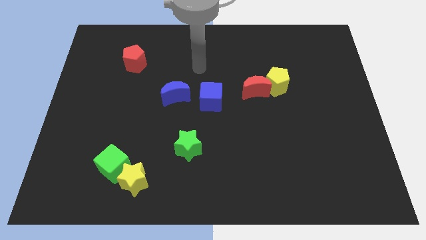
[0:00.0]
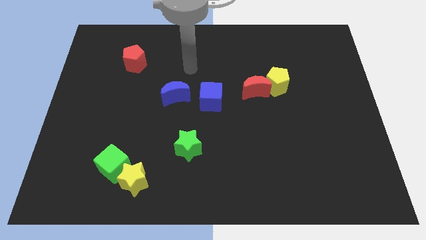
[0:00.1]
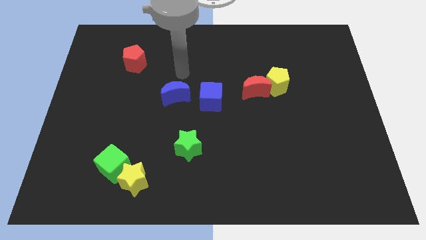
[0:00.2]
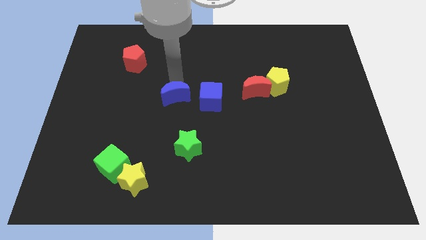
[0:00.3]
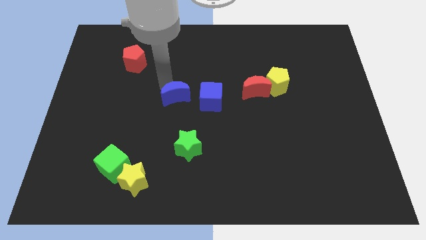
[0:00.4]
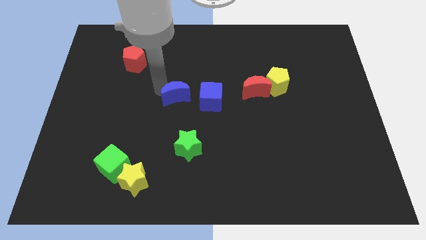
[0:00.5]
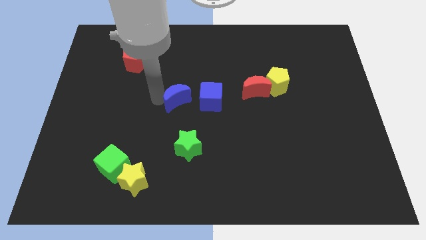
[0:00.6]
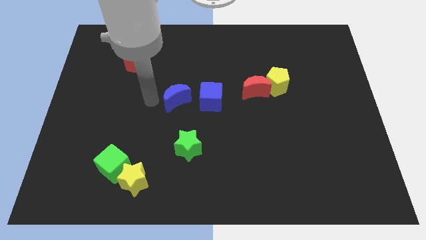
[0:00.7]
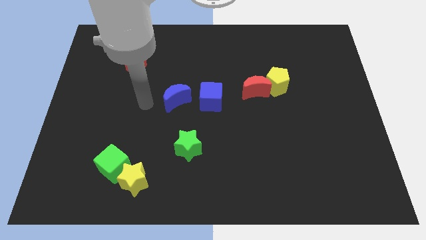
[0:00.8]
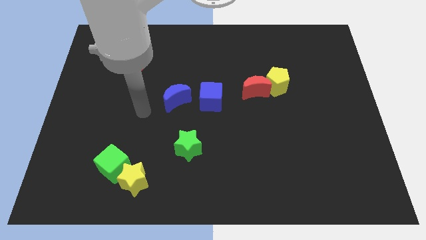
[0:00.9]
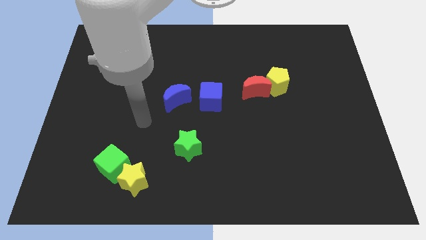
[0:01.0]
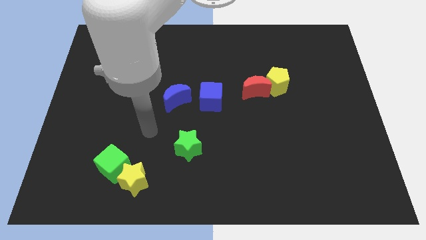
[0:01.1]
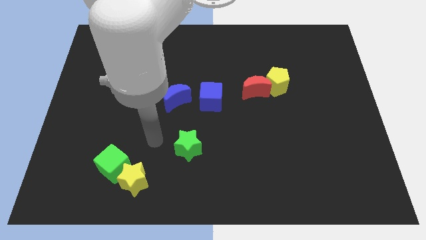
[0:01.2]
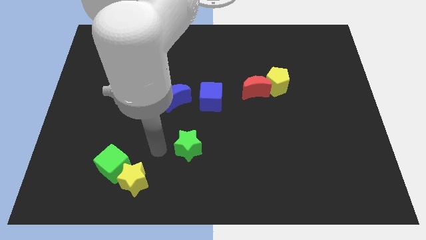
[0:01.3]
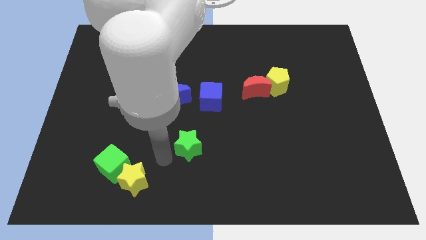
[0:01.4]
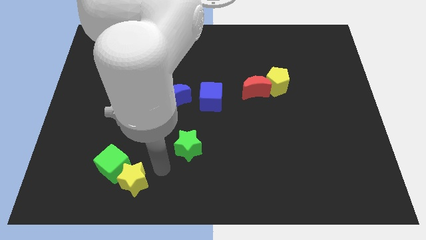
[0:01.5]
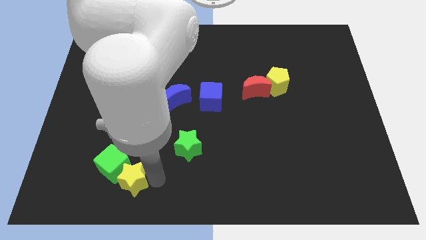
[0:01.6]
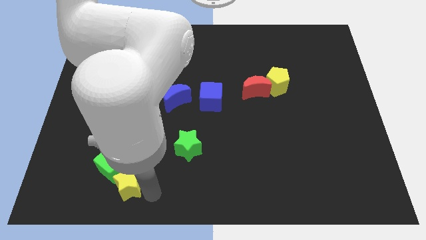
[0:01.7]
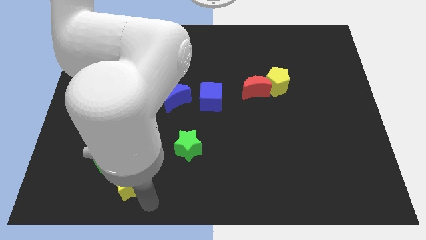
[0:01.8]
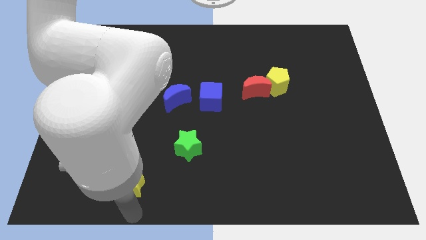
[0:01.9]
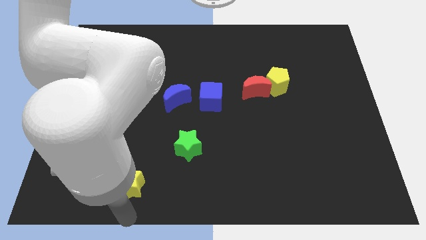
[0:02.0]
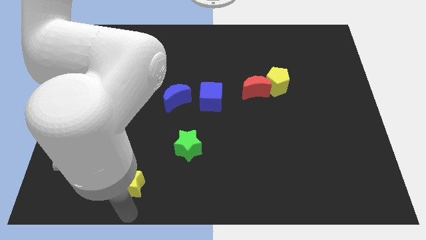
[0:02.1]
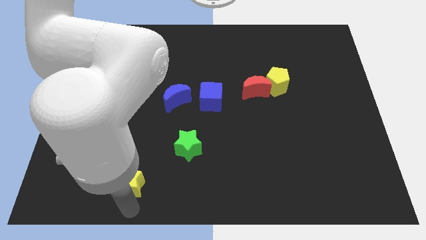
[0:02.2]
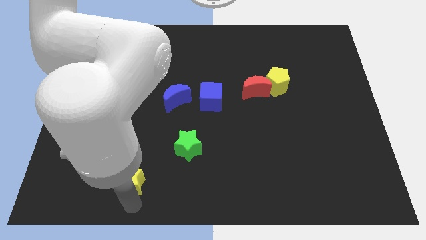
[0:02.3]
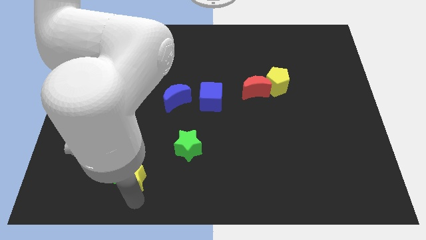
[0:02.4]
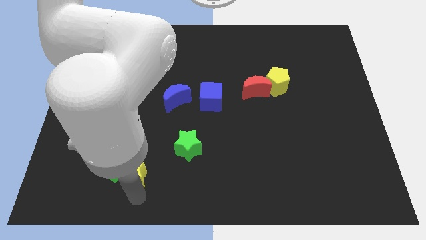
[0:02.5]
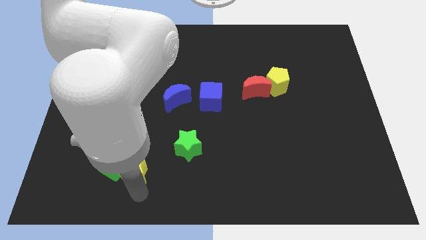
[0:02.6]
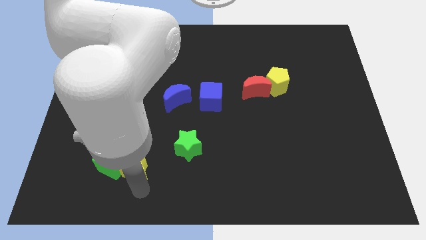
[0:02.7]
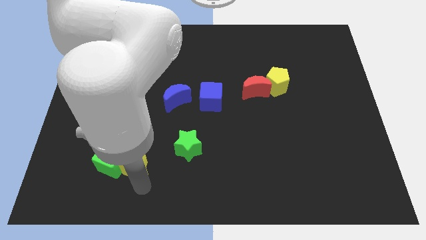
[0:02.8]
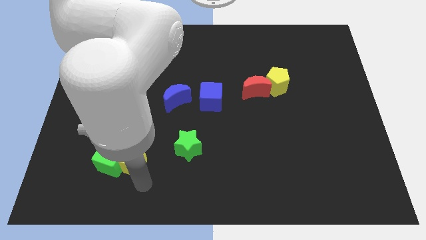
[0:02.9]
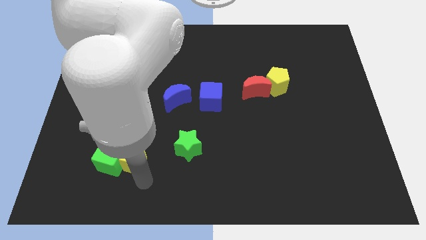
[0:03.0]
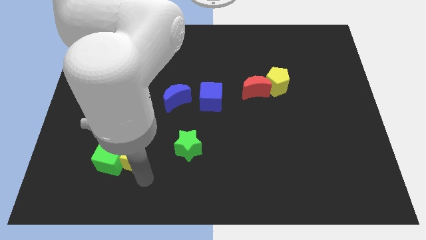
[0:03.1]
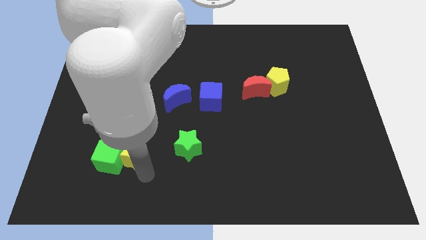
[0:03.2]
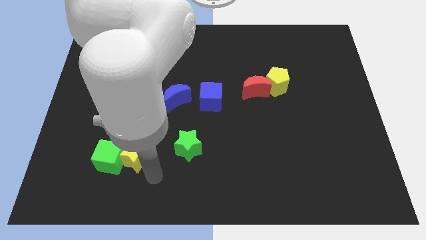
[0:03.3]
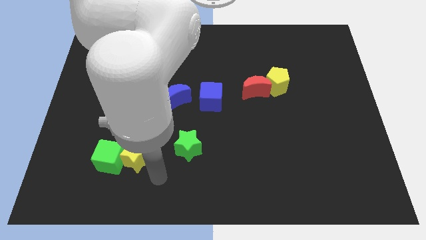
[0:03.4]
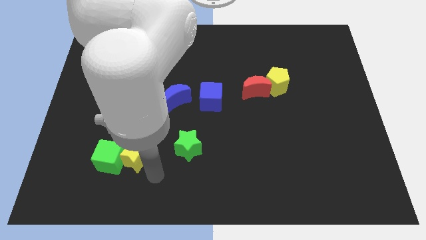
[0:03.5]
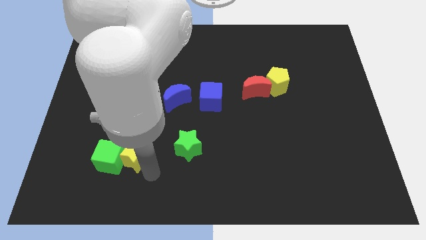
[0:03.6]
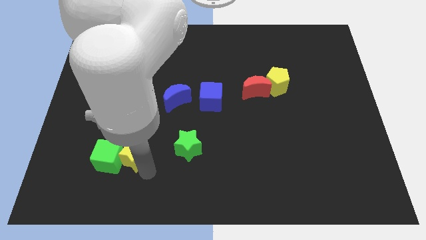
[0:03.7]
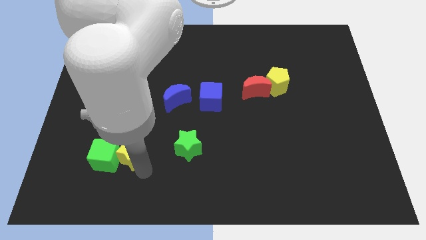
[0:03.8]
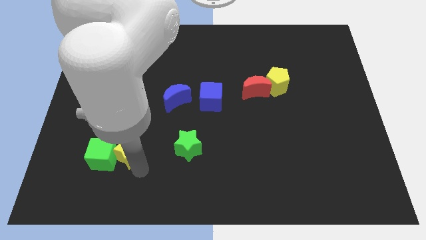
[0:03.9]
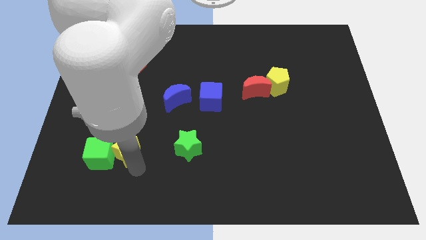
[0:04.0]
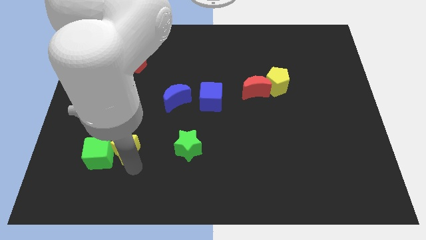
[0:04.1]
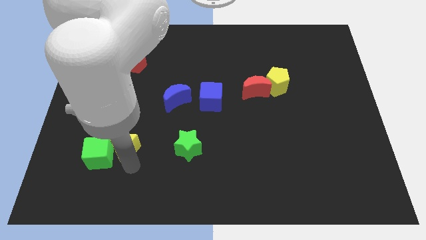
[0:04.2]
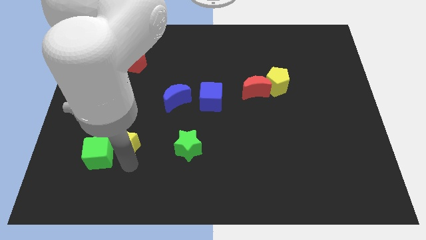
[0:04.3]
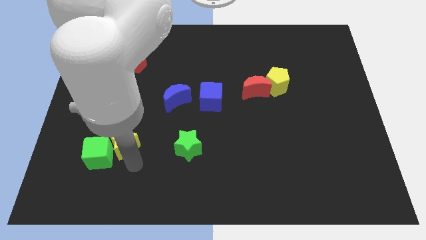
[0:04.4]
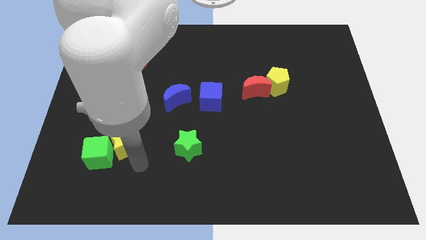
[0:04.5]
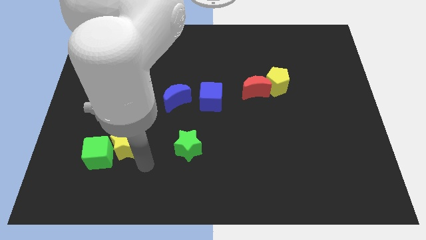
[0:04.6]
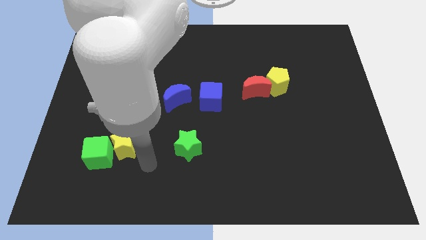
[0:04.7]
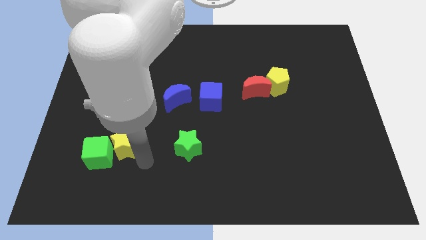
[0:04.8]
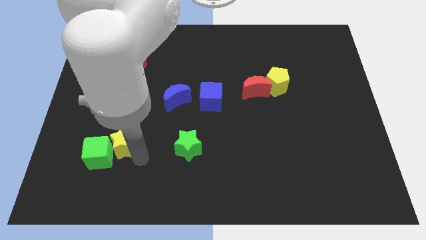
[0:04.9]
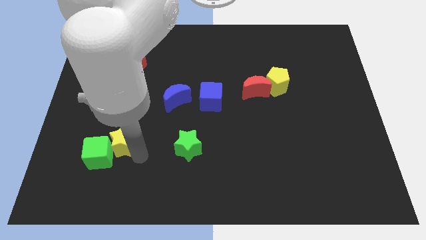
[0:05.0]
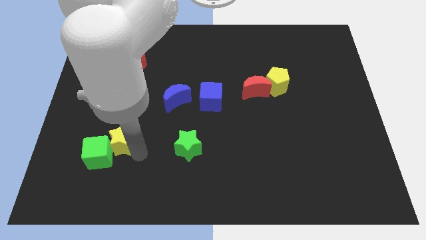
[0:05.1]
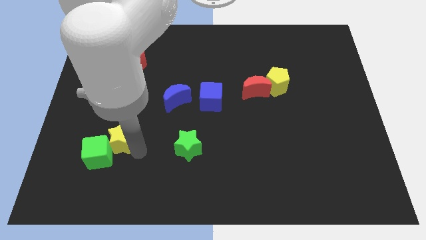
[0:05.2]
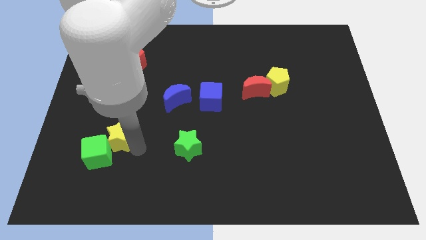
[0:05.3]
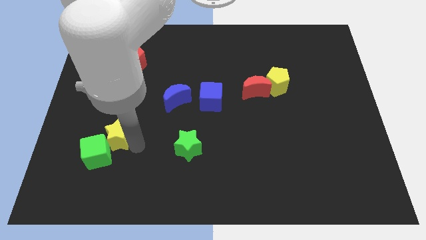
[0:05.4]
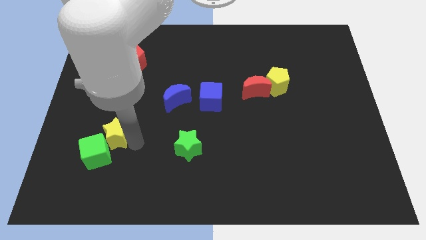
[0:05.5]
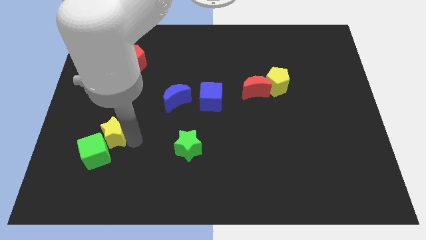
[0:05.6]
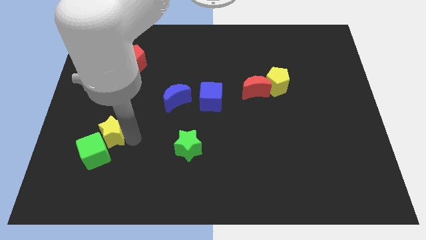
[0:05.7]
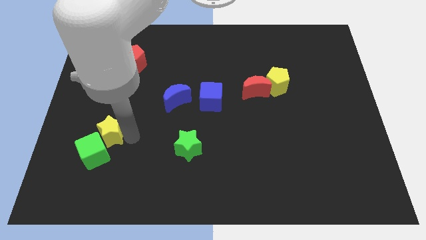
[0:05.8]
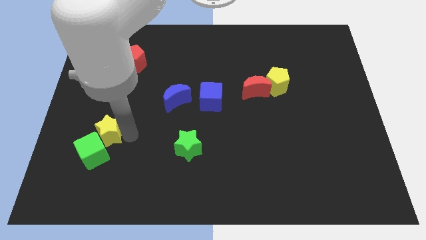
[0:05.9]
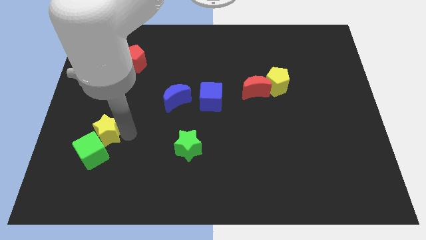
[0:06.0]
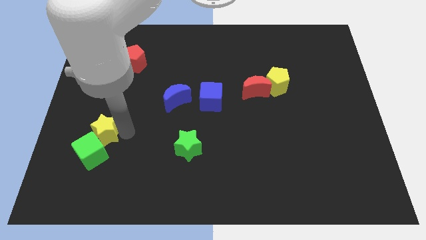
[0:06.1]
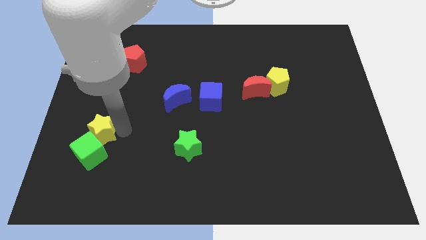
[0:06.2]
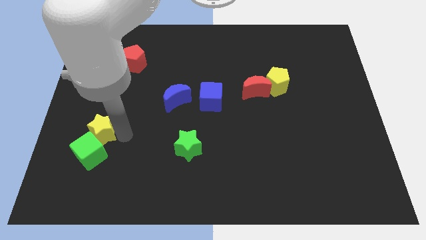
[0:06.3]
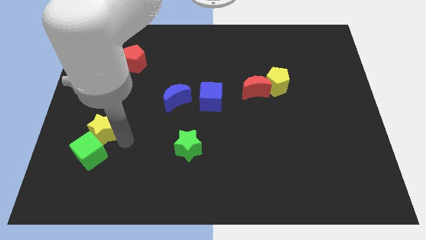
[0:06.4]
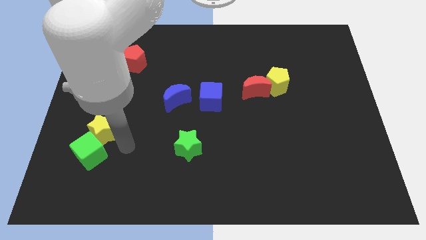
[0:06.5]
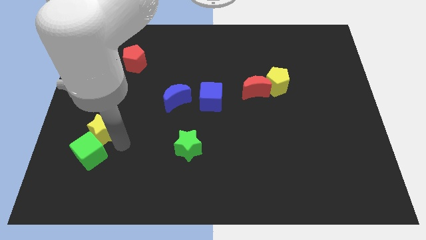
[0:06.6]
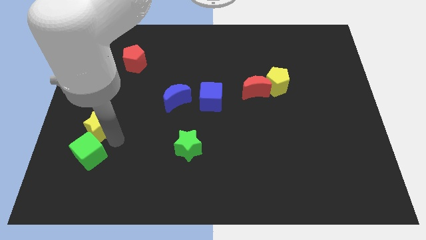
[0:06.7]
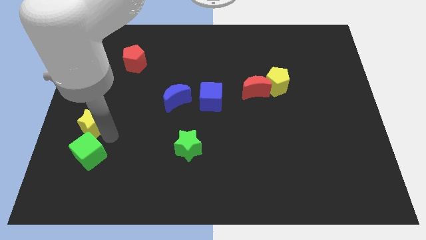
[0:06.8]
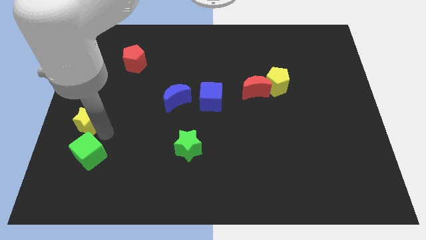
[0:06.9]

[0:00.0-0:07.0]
put the yellow star to the center left

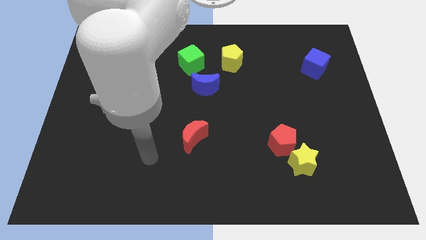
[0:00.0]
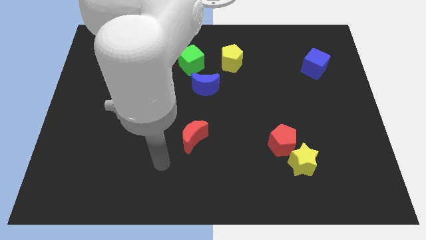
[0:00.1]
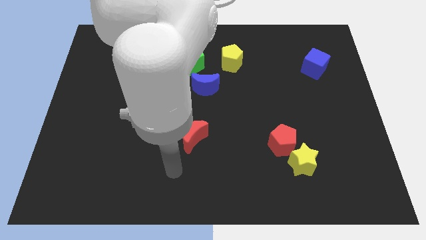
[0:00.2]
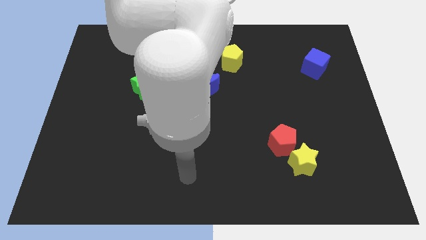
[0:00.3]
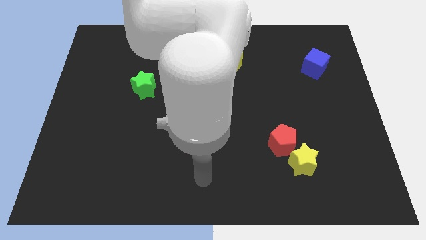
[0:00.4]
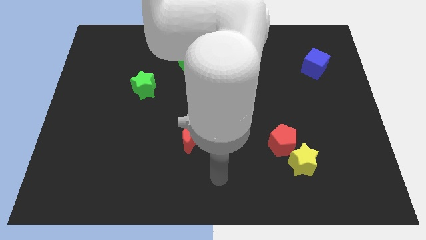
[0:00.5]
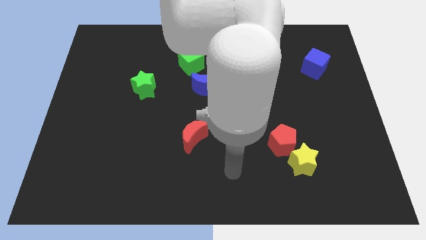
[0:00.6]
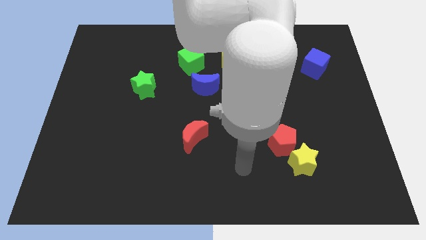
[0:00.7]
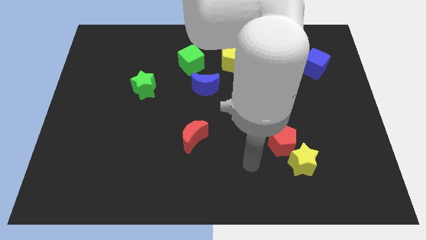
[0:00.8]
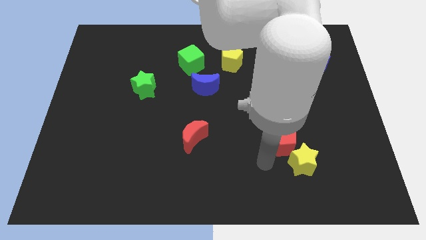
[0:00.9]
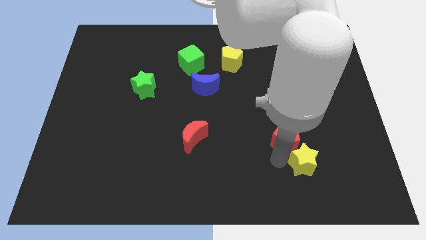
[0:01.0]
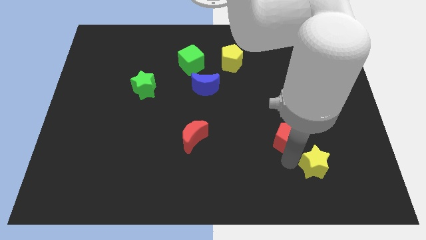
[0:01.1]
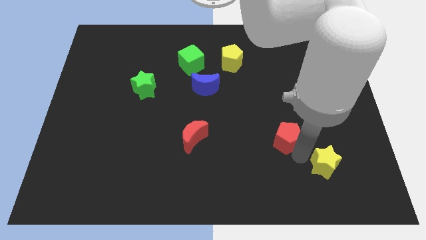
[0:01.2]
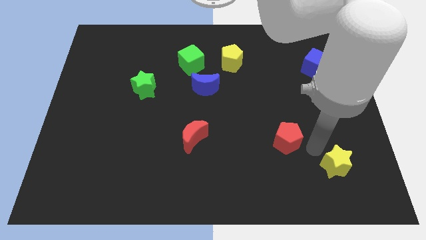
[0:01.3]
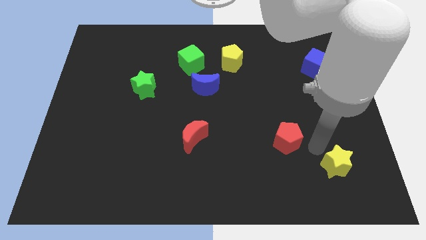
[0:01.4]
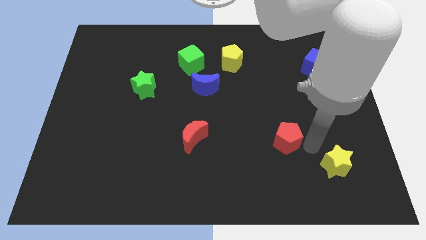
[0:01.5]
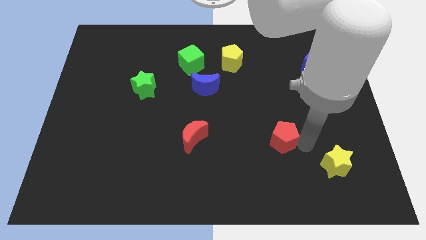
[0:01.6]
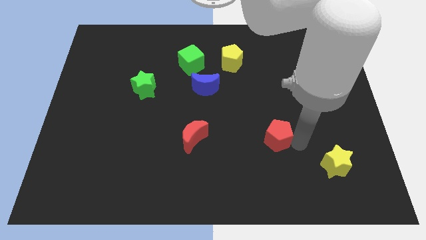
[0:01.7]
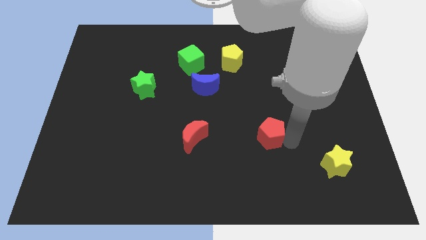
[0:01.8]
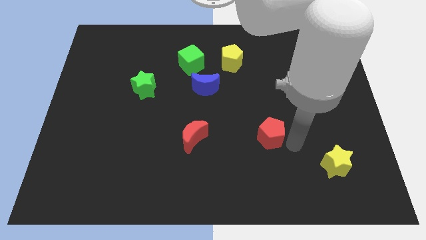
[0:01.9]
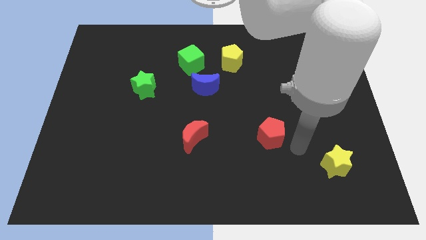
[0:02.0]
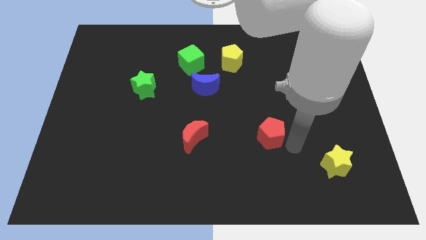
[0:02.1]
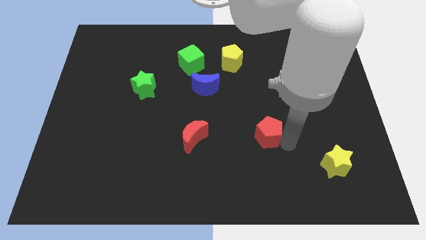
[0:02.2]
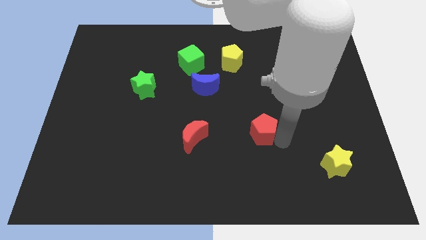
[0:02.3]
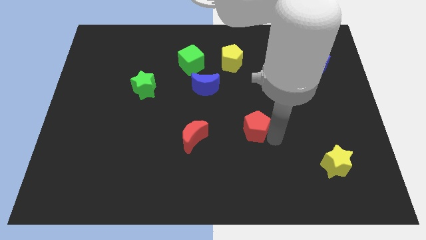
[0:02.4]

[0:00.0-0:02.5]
move the red pentagon to the center of the board
